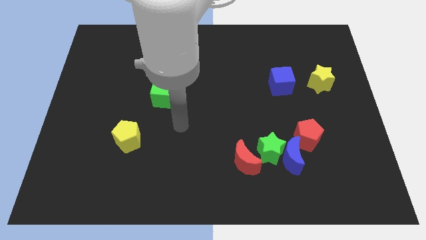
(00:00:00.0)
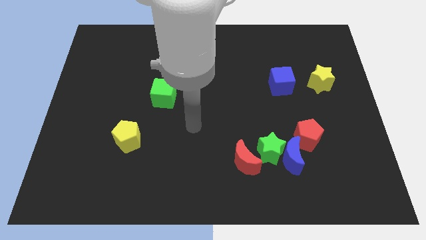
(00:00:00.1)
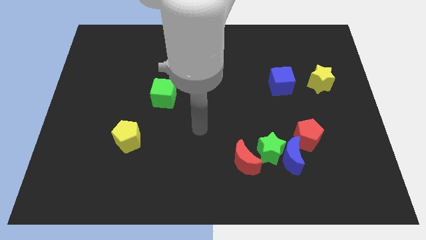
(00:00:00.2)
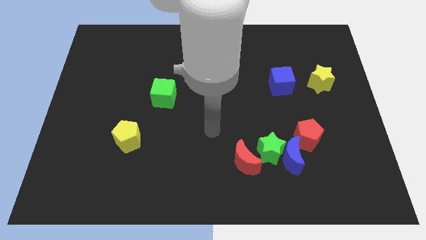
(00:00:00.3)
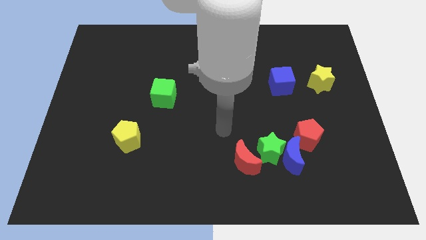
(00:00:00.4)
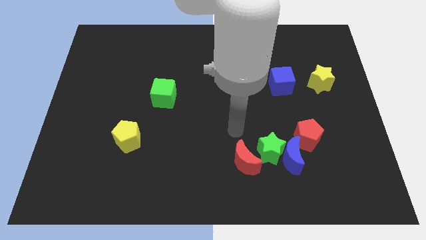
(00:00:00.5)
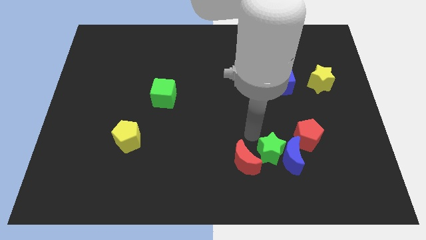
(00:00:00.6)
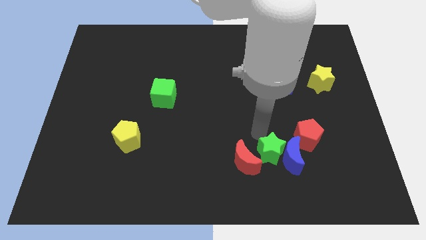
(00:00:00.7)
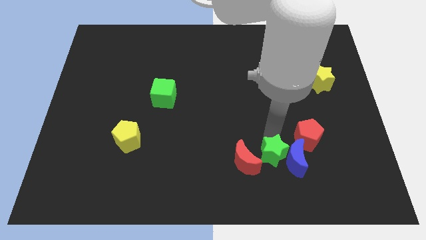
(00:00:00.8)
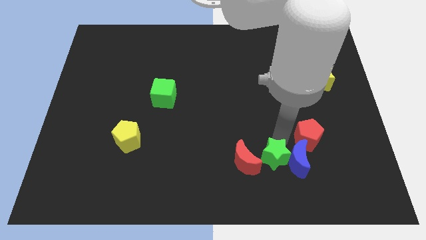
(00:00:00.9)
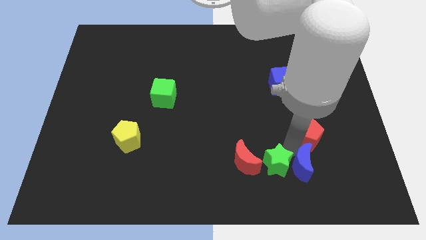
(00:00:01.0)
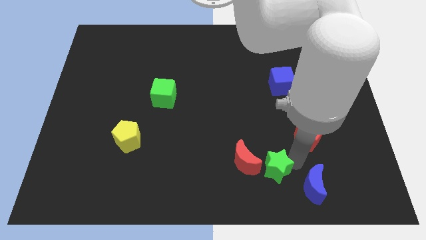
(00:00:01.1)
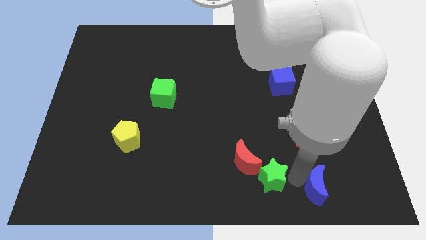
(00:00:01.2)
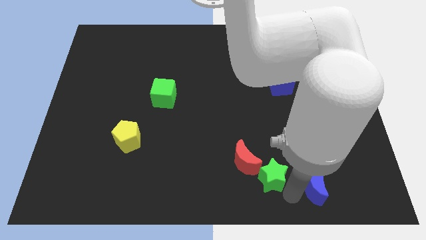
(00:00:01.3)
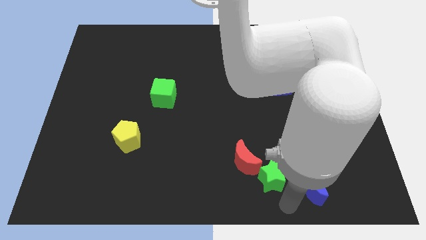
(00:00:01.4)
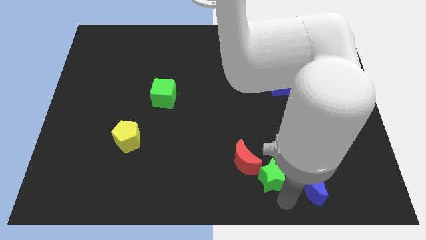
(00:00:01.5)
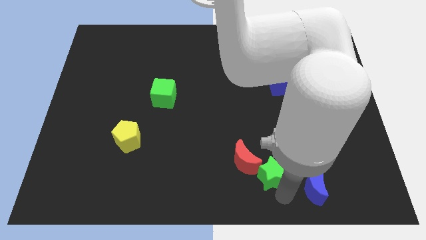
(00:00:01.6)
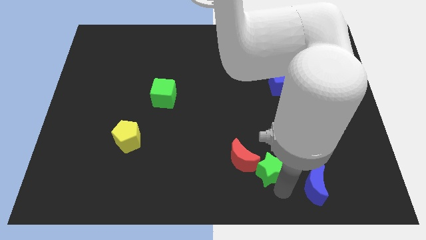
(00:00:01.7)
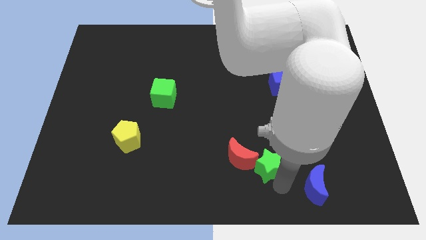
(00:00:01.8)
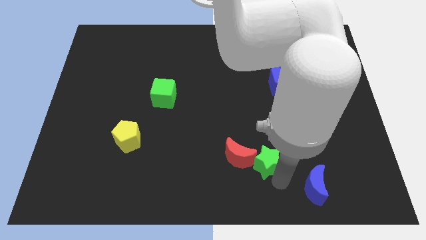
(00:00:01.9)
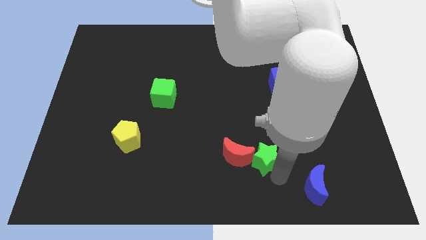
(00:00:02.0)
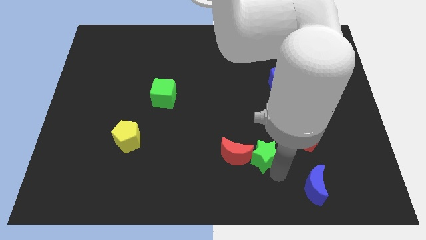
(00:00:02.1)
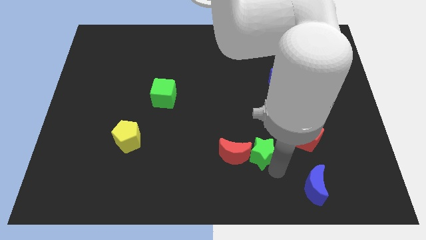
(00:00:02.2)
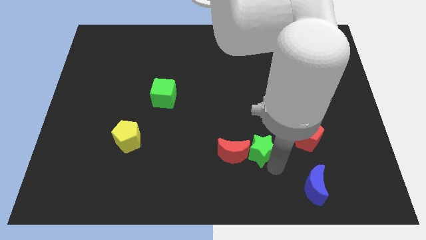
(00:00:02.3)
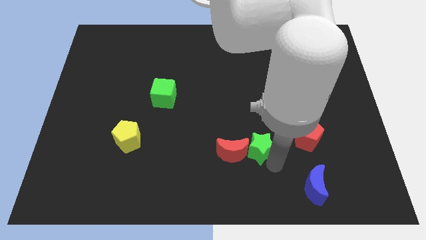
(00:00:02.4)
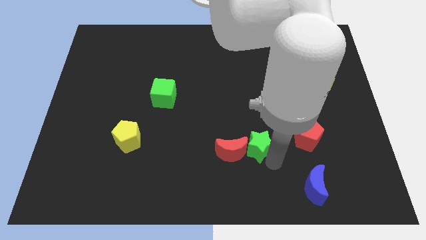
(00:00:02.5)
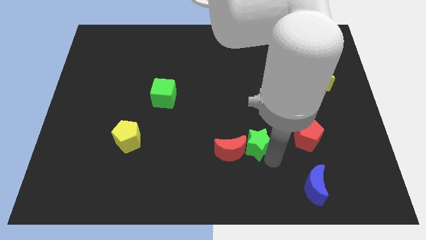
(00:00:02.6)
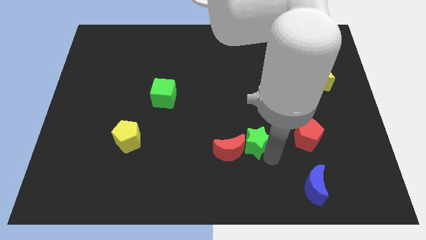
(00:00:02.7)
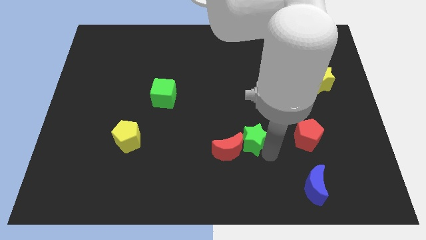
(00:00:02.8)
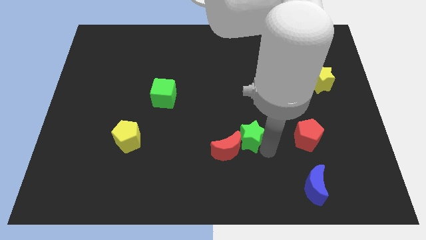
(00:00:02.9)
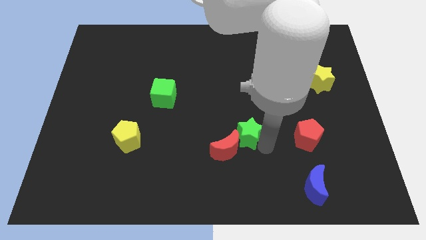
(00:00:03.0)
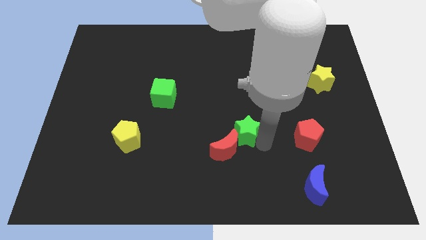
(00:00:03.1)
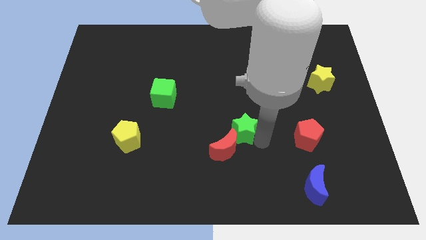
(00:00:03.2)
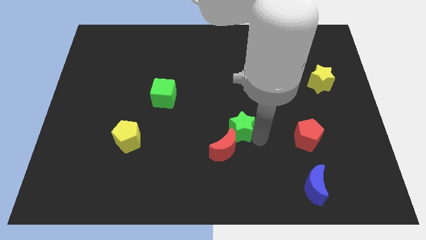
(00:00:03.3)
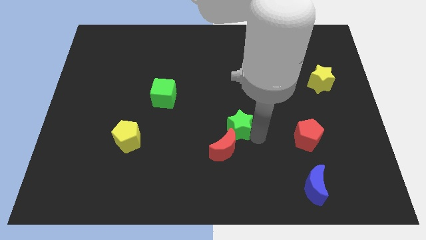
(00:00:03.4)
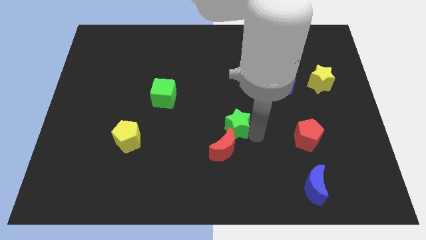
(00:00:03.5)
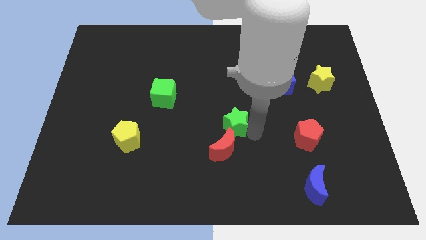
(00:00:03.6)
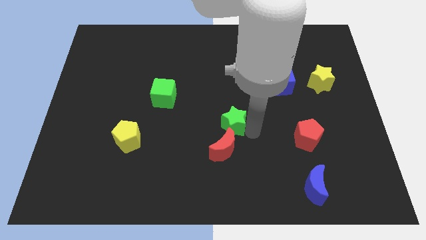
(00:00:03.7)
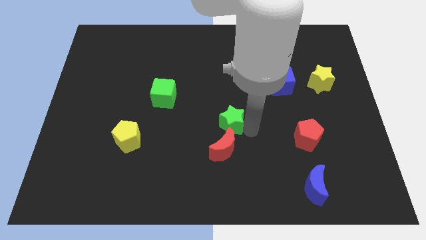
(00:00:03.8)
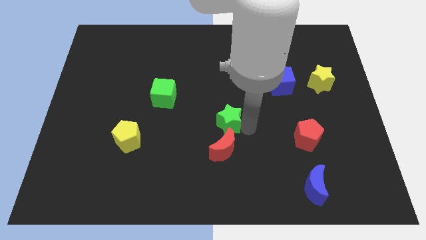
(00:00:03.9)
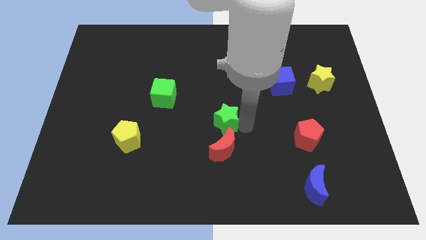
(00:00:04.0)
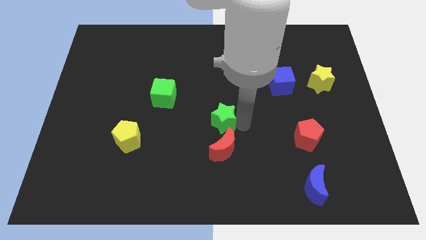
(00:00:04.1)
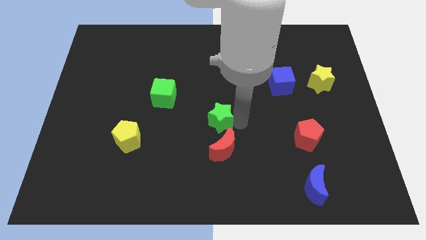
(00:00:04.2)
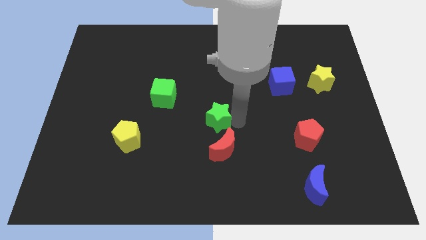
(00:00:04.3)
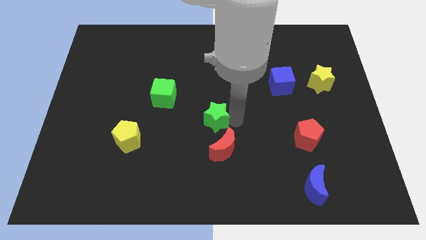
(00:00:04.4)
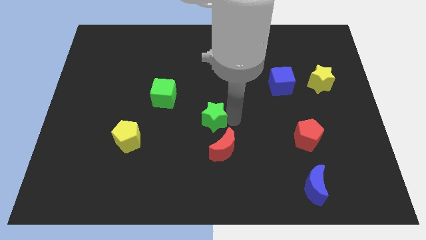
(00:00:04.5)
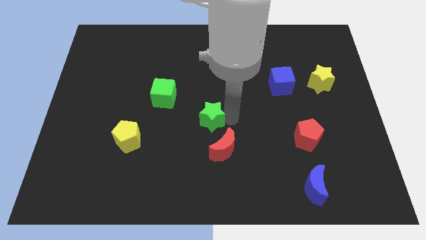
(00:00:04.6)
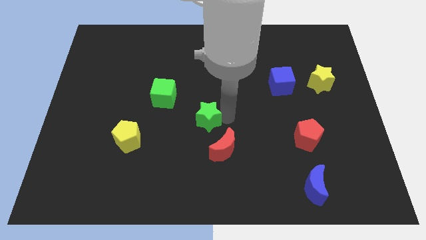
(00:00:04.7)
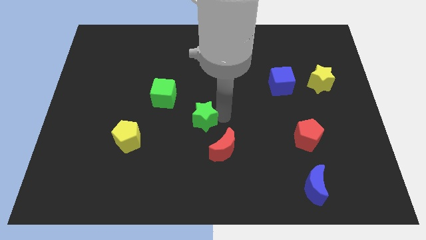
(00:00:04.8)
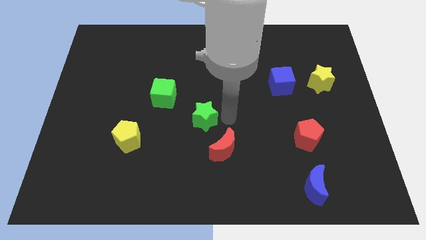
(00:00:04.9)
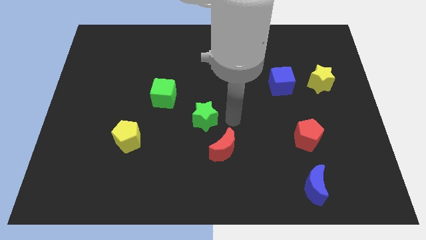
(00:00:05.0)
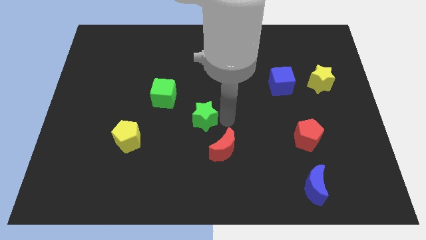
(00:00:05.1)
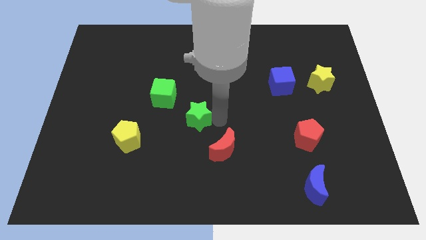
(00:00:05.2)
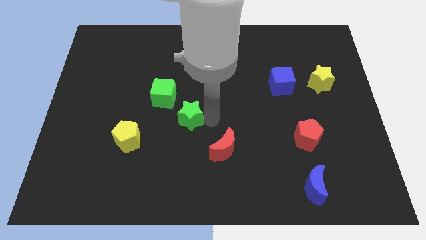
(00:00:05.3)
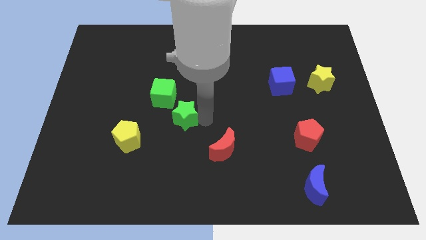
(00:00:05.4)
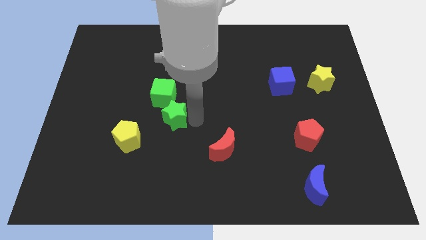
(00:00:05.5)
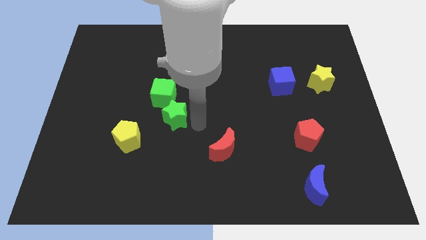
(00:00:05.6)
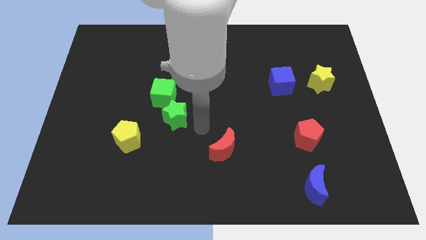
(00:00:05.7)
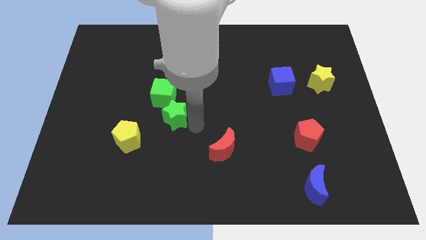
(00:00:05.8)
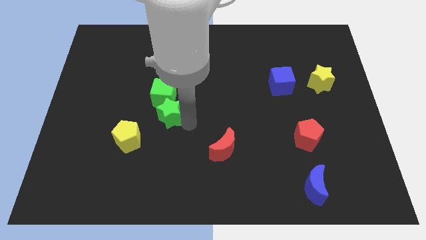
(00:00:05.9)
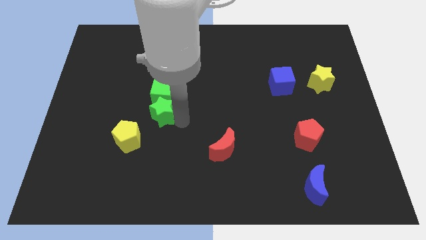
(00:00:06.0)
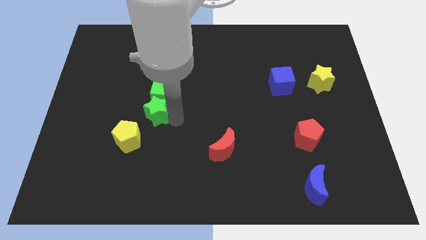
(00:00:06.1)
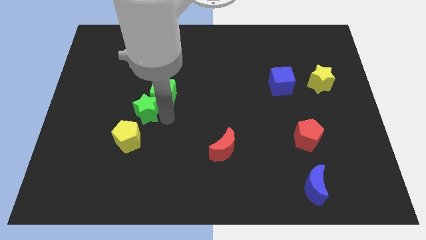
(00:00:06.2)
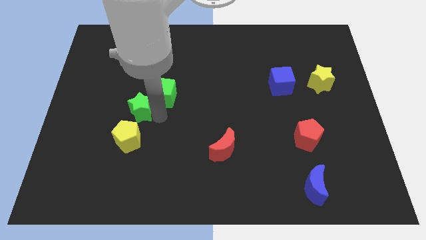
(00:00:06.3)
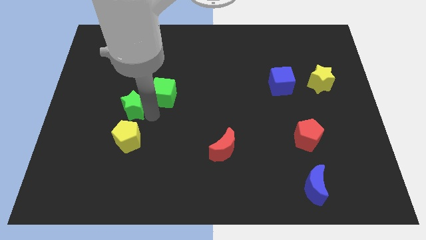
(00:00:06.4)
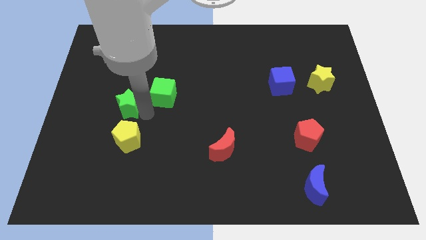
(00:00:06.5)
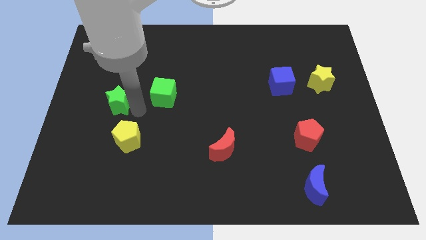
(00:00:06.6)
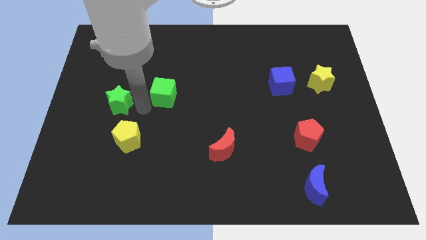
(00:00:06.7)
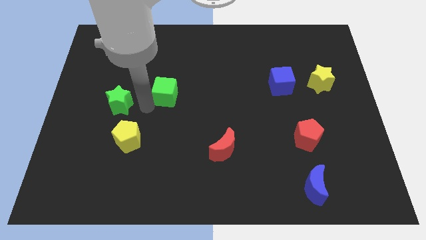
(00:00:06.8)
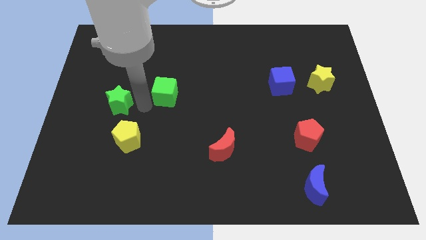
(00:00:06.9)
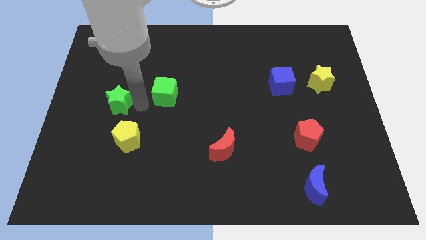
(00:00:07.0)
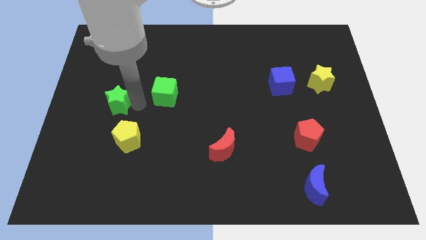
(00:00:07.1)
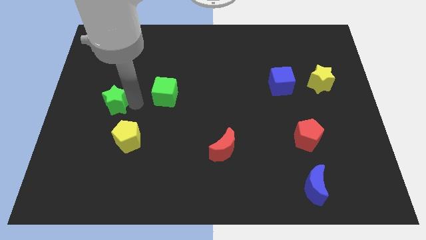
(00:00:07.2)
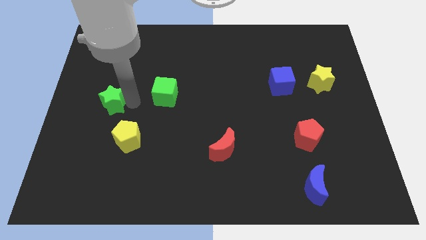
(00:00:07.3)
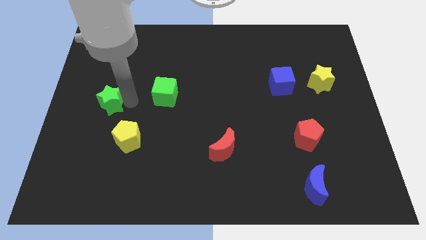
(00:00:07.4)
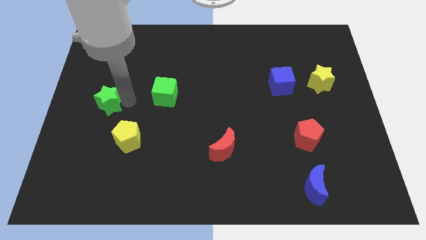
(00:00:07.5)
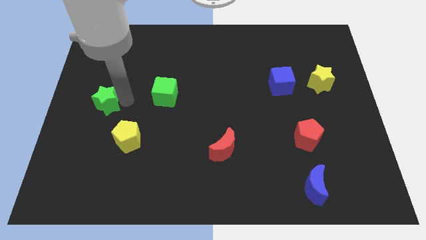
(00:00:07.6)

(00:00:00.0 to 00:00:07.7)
slide the green star to the left side of the board
